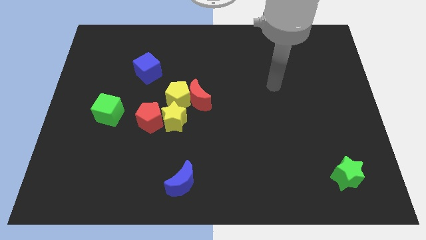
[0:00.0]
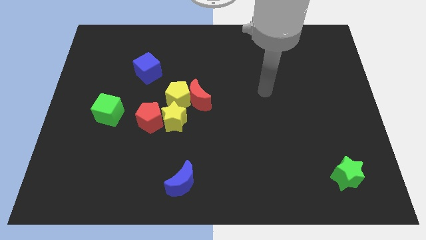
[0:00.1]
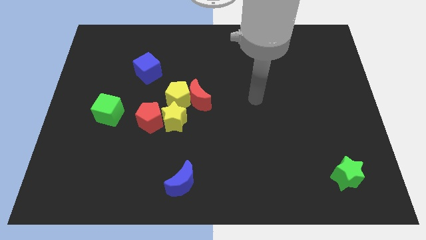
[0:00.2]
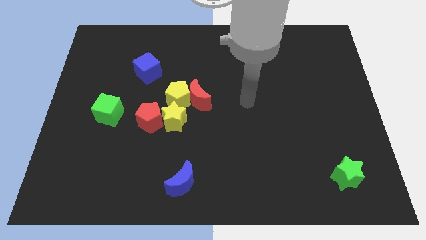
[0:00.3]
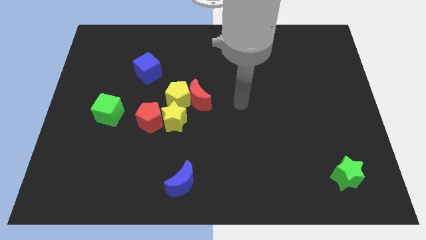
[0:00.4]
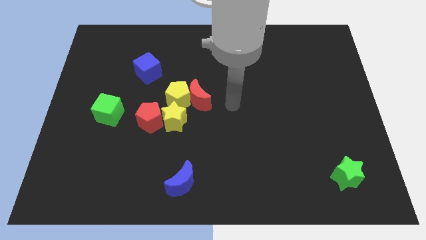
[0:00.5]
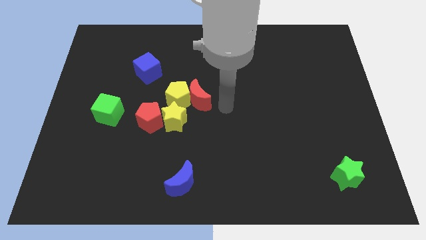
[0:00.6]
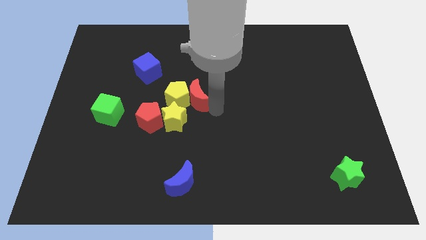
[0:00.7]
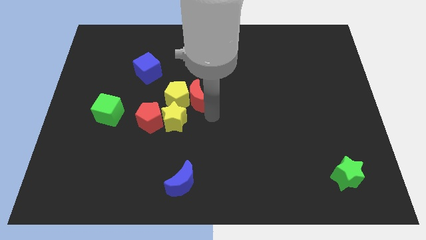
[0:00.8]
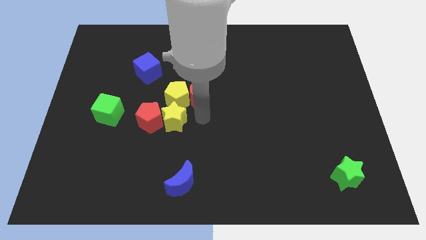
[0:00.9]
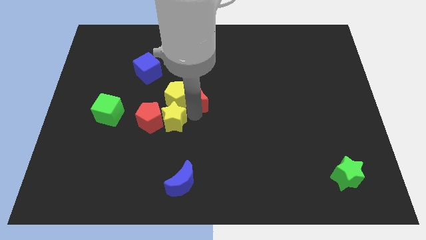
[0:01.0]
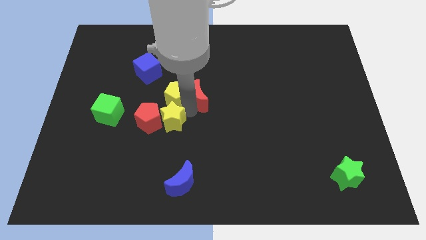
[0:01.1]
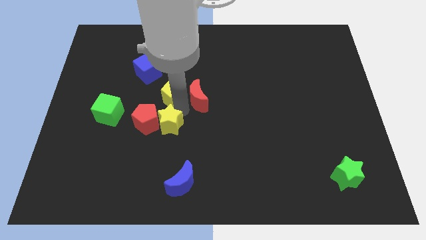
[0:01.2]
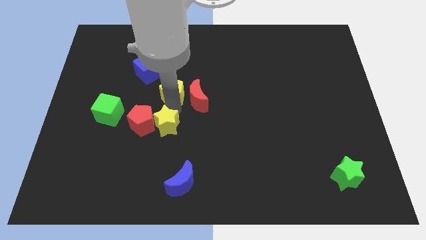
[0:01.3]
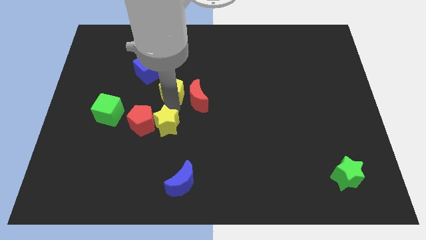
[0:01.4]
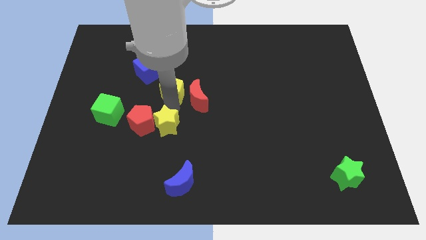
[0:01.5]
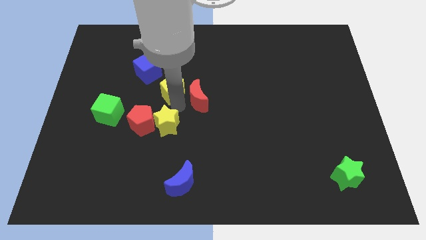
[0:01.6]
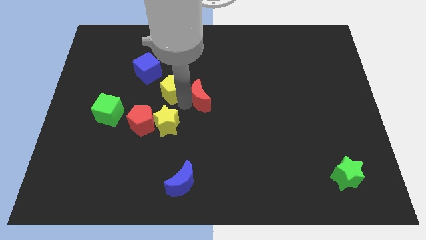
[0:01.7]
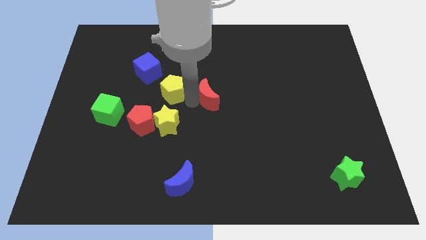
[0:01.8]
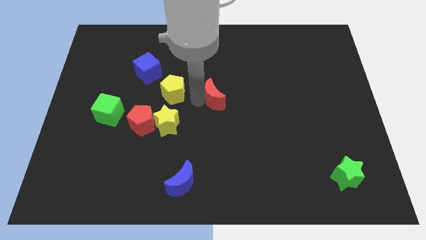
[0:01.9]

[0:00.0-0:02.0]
pull the red moon apart from the yellow pentagon and yellow star

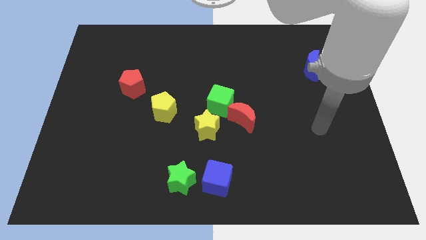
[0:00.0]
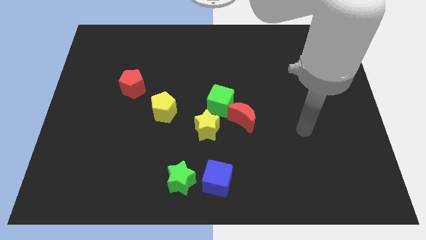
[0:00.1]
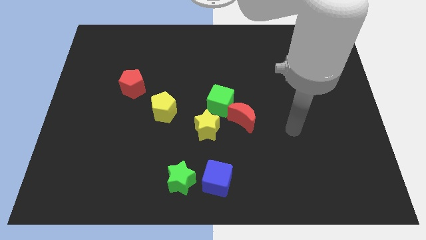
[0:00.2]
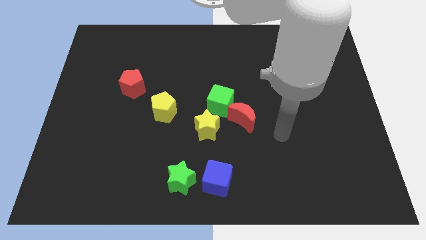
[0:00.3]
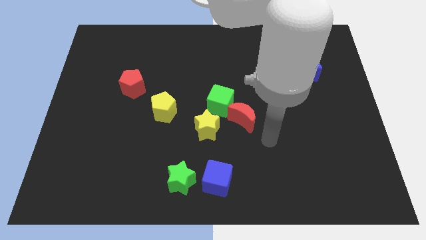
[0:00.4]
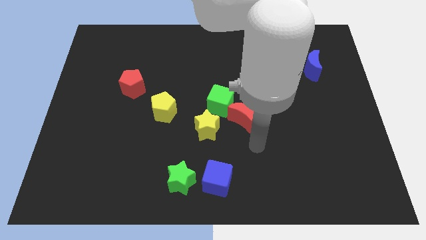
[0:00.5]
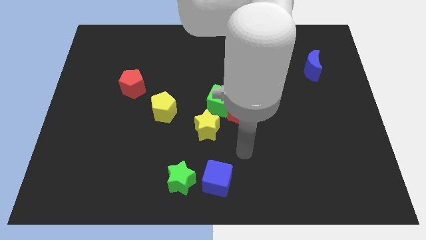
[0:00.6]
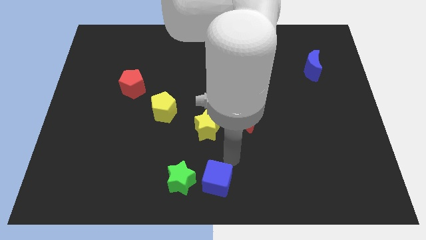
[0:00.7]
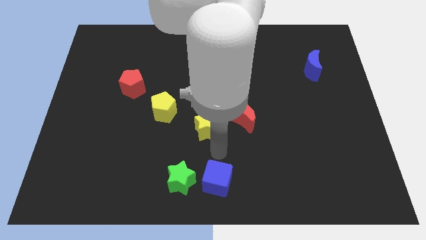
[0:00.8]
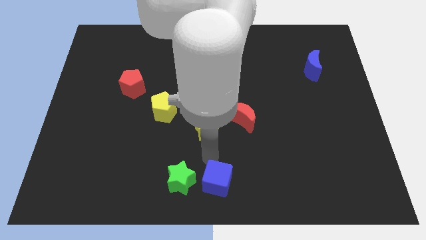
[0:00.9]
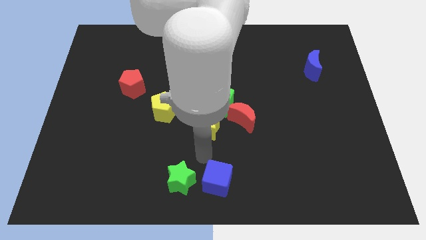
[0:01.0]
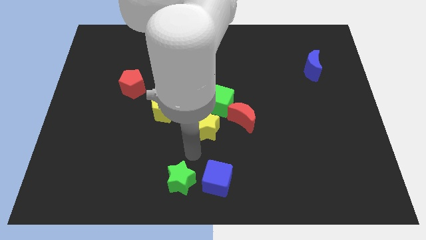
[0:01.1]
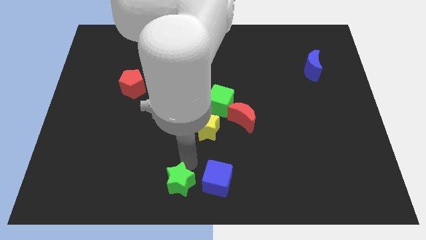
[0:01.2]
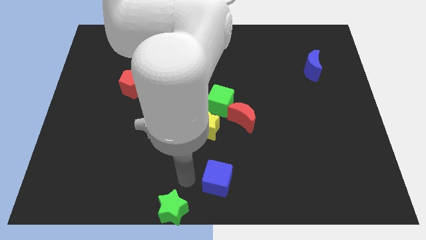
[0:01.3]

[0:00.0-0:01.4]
pull the blue cube apart from the green star

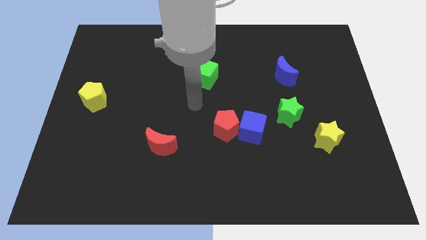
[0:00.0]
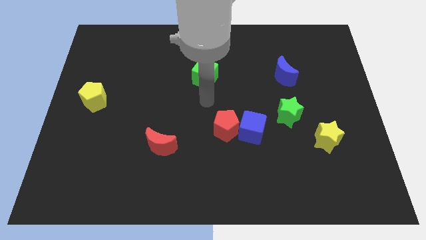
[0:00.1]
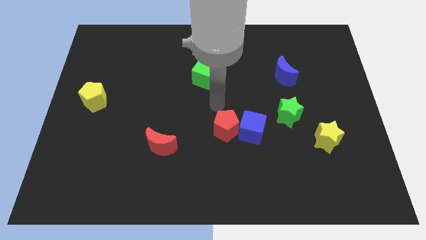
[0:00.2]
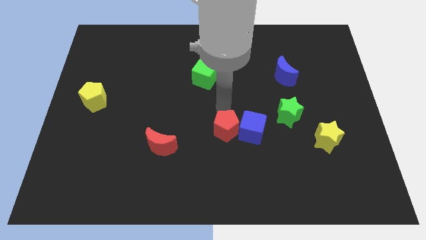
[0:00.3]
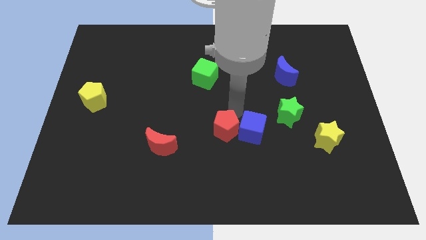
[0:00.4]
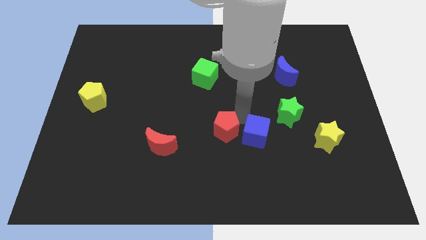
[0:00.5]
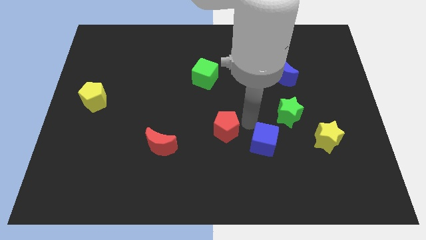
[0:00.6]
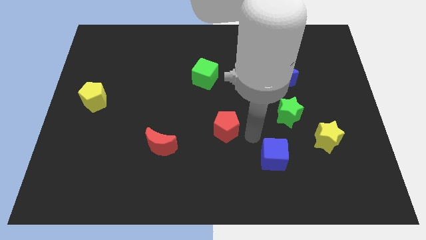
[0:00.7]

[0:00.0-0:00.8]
move the red pentagon away from the blue cube

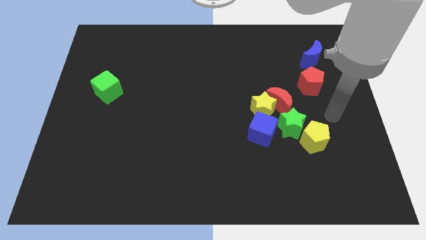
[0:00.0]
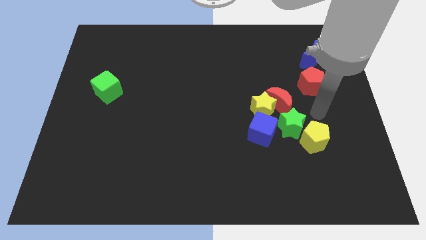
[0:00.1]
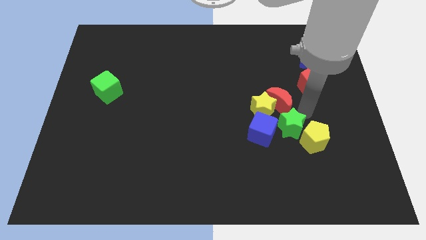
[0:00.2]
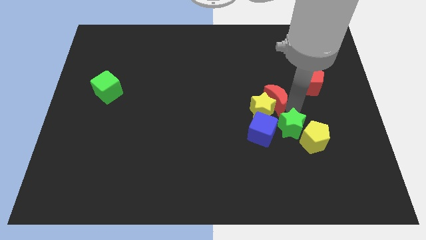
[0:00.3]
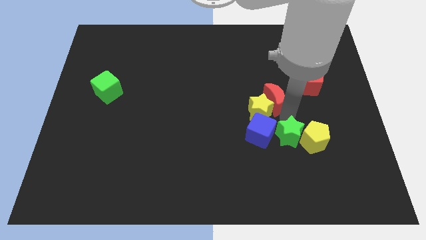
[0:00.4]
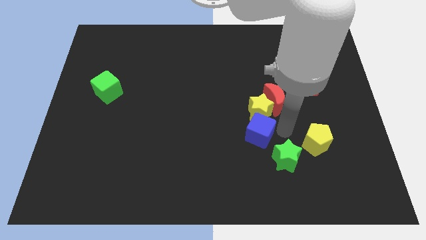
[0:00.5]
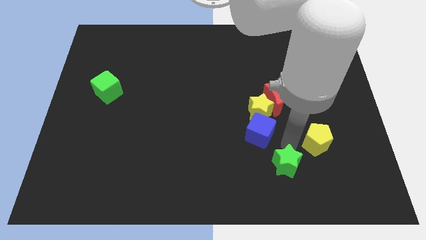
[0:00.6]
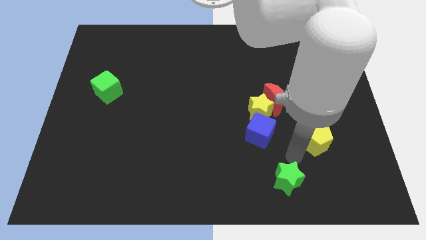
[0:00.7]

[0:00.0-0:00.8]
separate the yellow pentagon from the green star

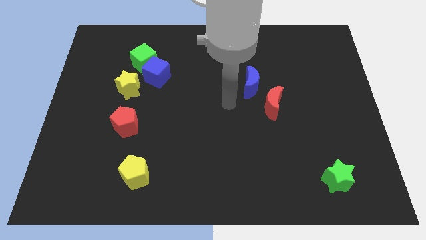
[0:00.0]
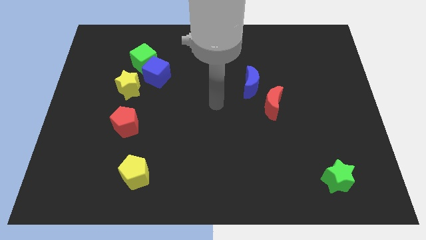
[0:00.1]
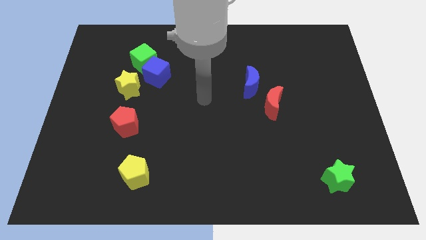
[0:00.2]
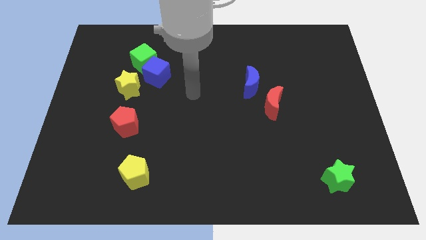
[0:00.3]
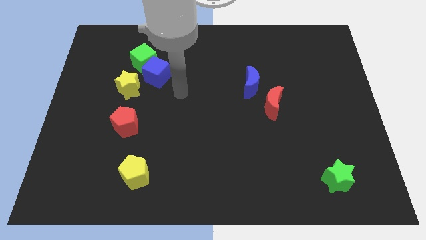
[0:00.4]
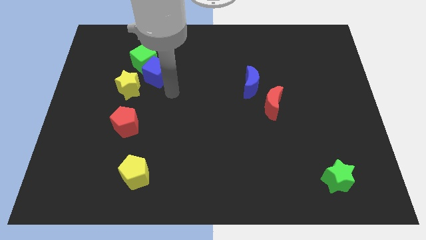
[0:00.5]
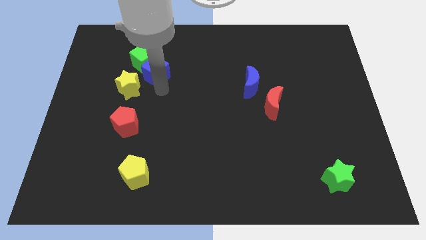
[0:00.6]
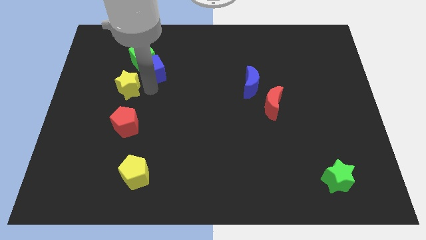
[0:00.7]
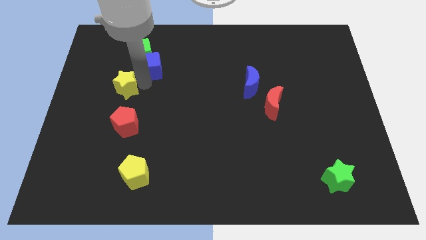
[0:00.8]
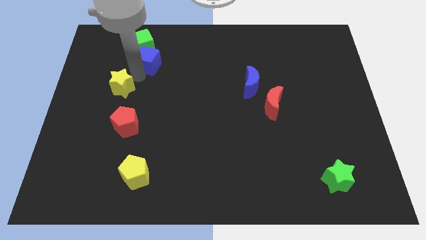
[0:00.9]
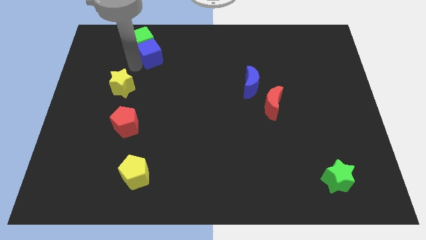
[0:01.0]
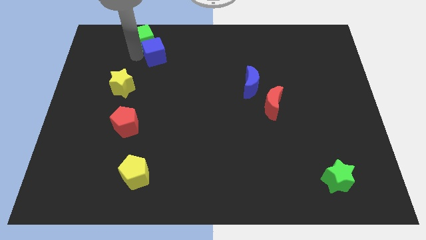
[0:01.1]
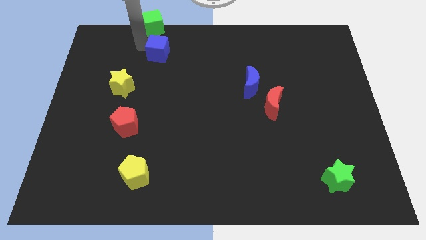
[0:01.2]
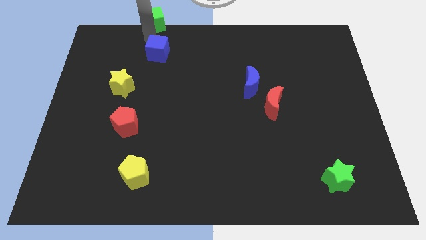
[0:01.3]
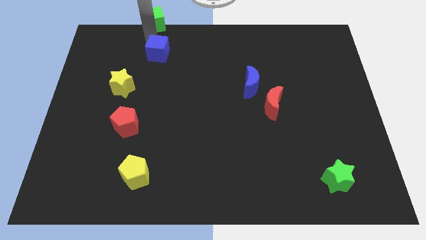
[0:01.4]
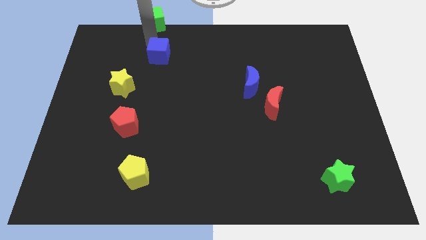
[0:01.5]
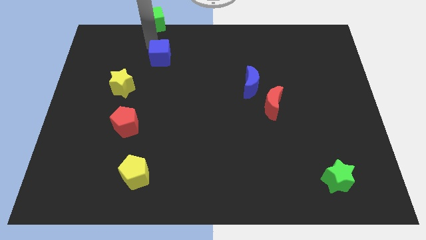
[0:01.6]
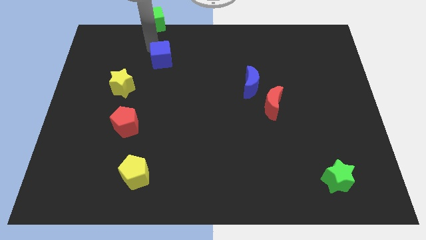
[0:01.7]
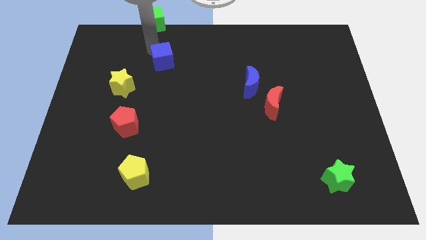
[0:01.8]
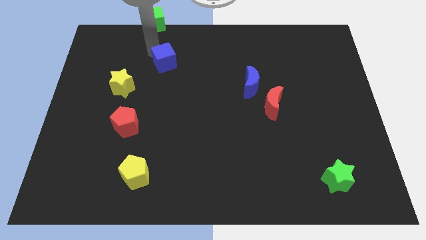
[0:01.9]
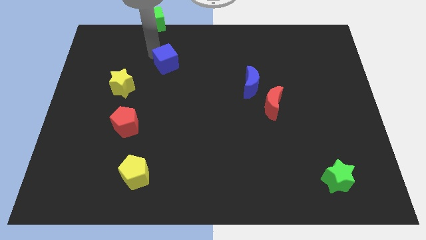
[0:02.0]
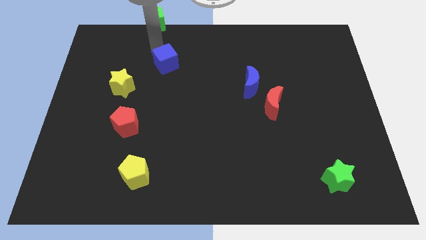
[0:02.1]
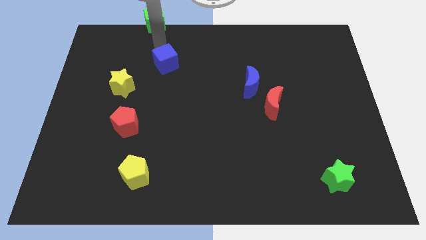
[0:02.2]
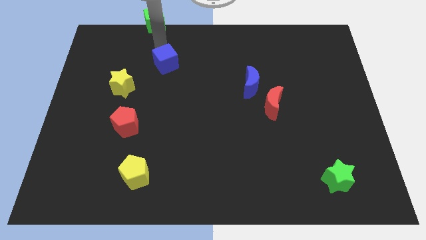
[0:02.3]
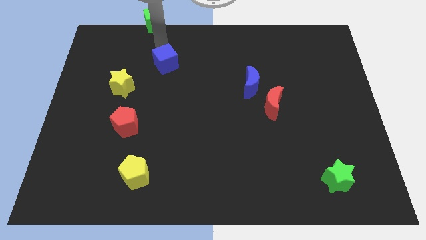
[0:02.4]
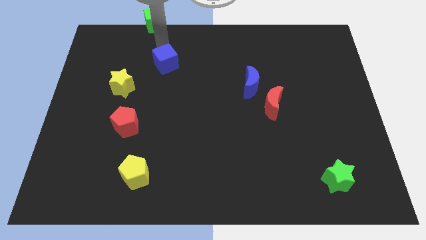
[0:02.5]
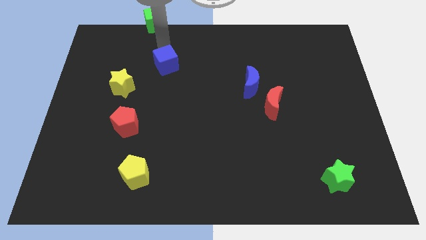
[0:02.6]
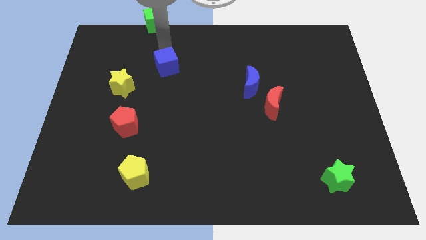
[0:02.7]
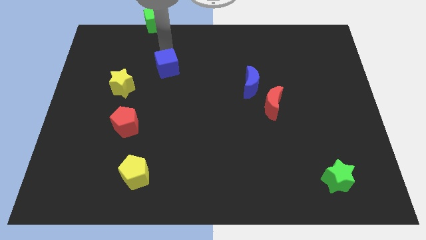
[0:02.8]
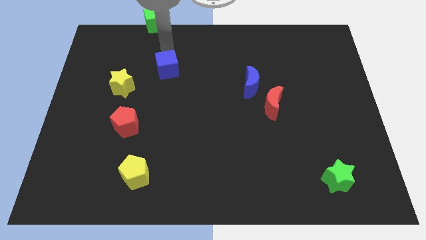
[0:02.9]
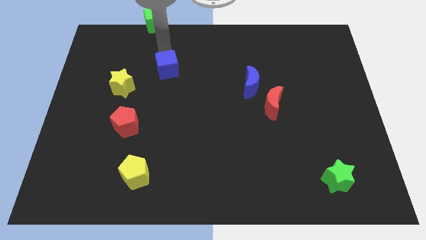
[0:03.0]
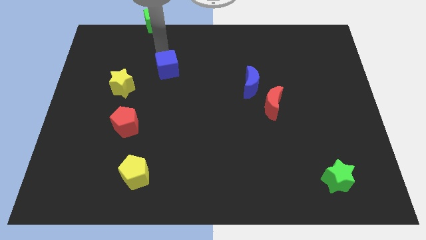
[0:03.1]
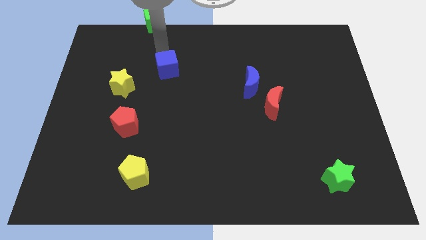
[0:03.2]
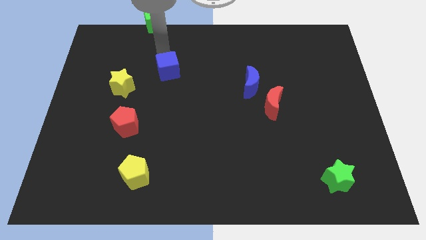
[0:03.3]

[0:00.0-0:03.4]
pull the blue cube apart from the green cube and yellow star

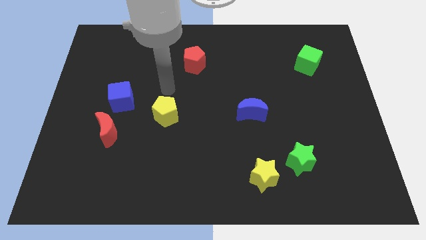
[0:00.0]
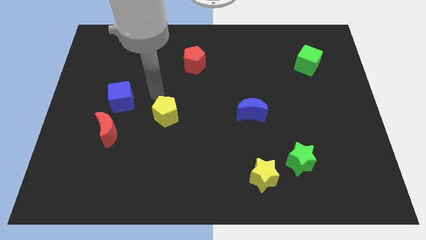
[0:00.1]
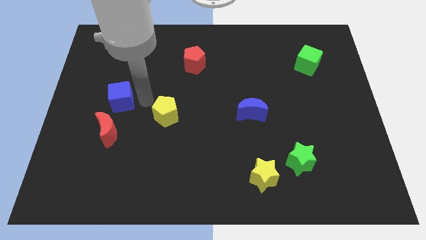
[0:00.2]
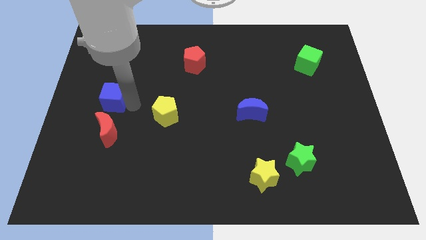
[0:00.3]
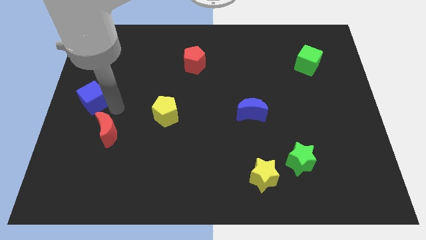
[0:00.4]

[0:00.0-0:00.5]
separate the red moon from the blue cube

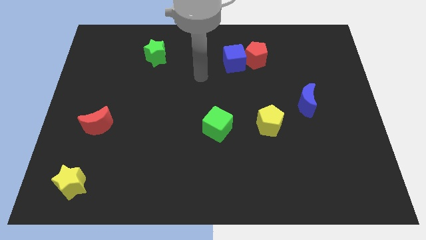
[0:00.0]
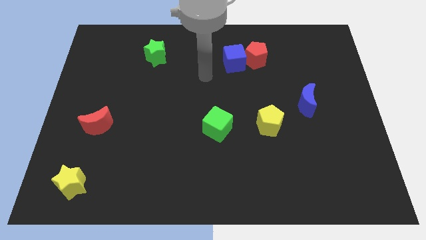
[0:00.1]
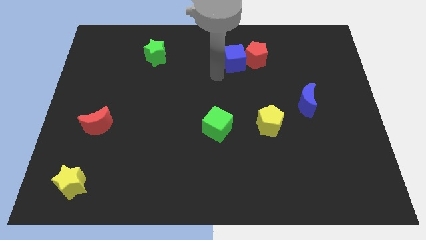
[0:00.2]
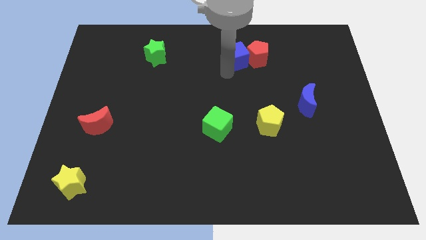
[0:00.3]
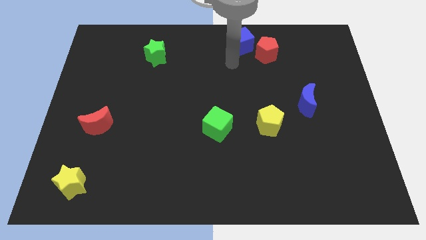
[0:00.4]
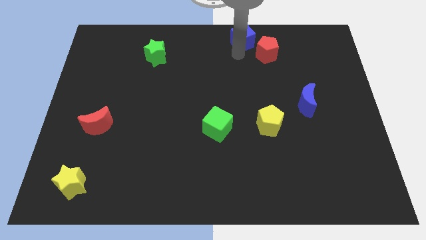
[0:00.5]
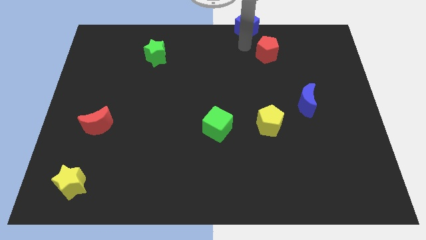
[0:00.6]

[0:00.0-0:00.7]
pull the red pentagon apart from the blue cube
